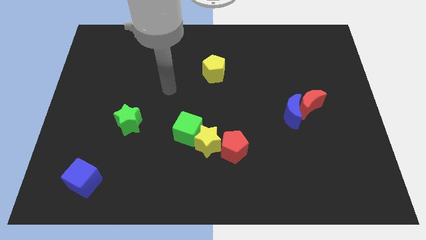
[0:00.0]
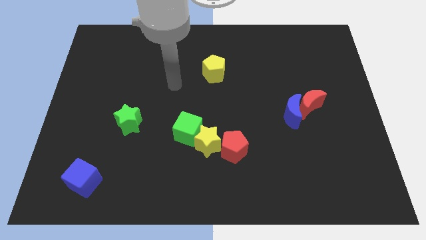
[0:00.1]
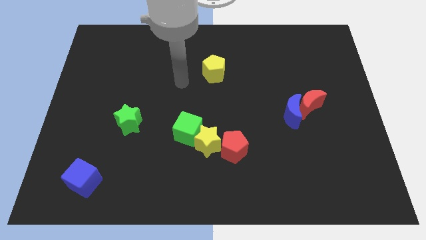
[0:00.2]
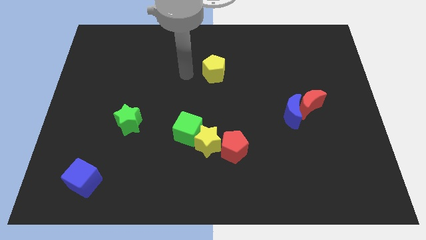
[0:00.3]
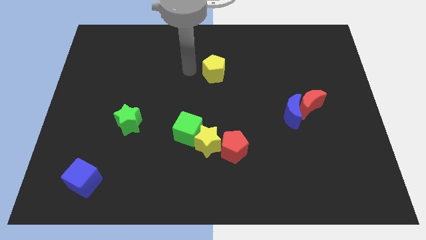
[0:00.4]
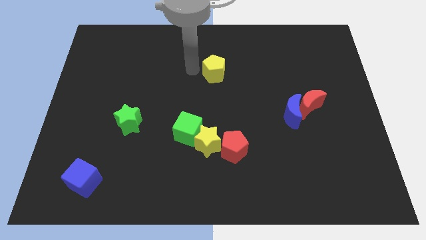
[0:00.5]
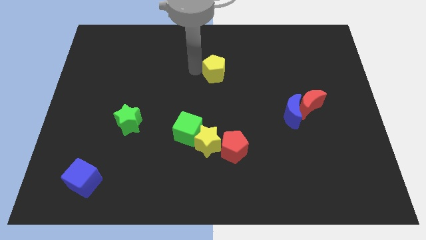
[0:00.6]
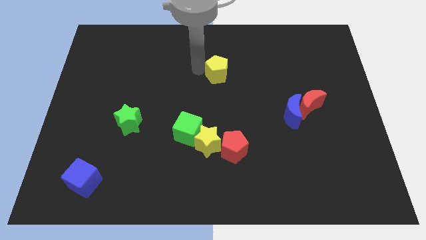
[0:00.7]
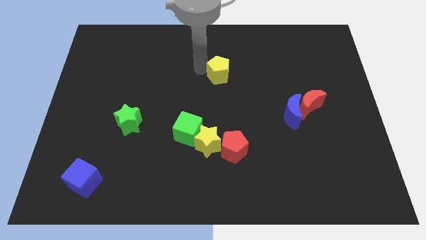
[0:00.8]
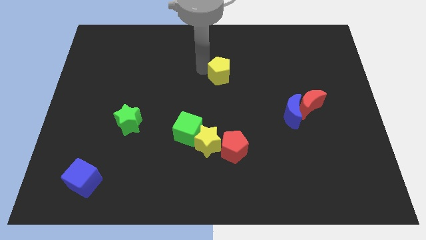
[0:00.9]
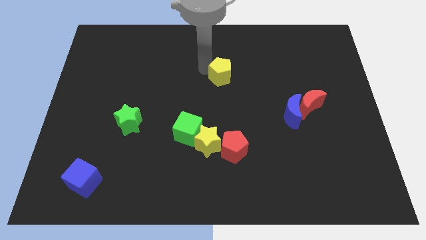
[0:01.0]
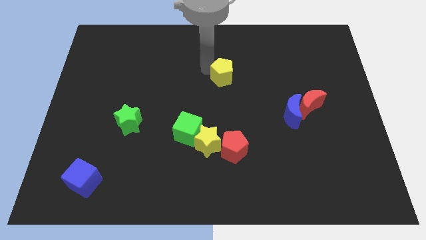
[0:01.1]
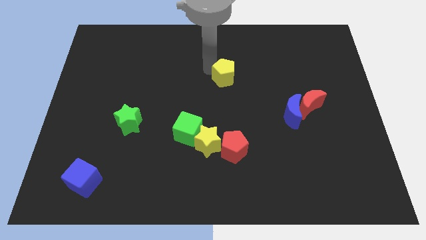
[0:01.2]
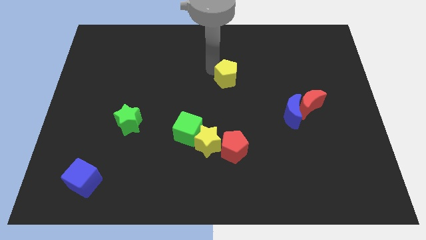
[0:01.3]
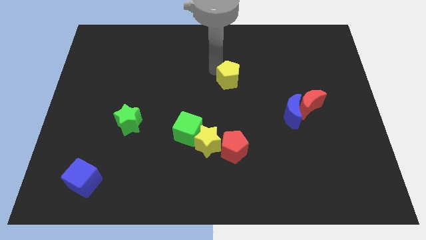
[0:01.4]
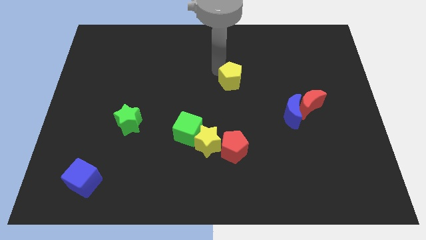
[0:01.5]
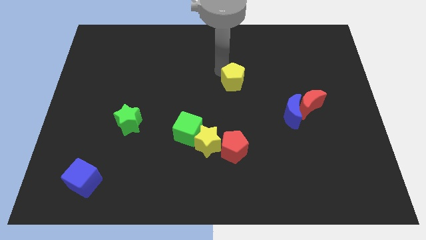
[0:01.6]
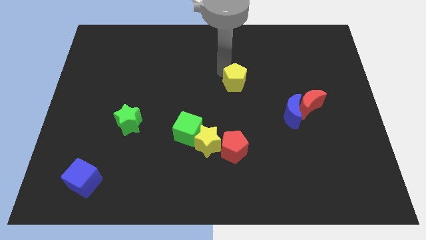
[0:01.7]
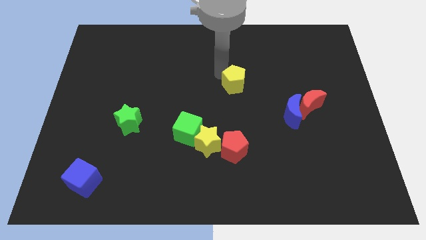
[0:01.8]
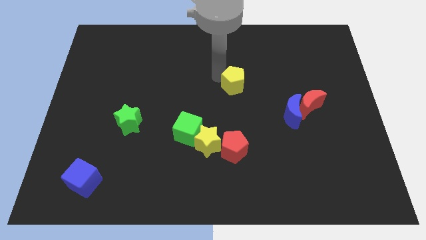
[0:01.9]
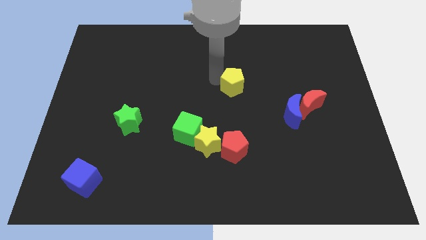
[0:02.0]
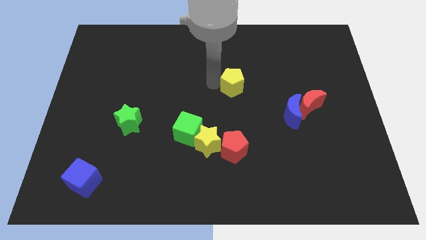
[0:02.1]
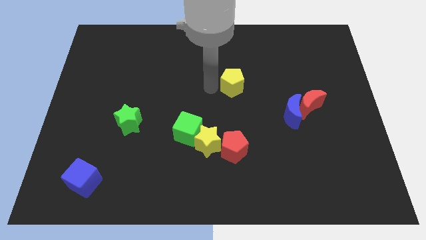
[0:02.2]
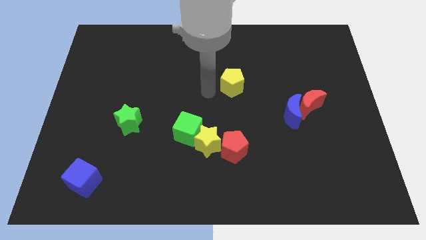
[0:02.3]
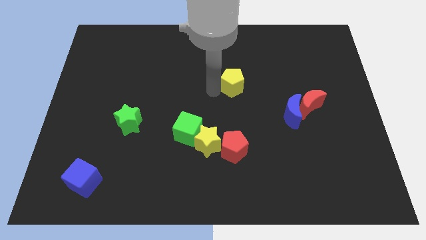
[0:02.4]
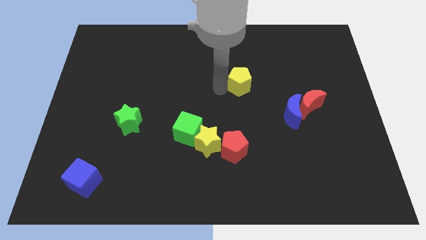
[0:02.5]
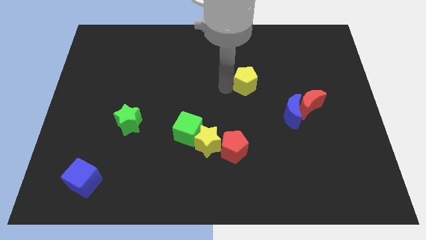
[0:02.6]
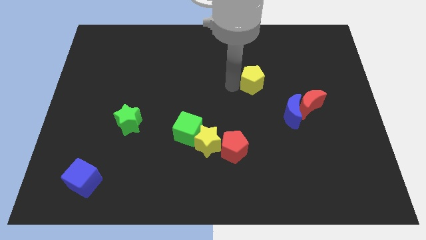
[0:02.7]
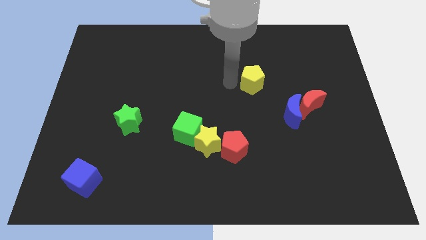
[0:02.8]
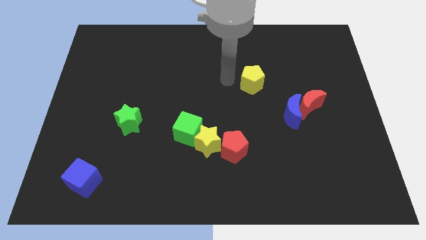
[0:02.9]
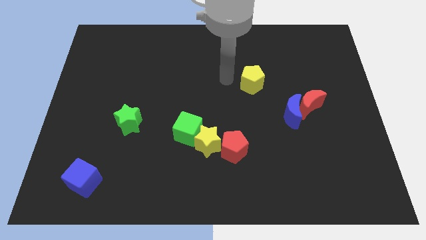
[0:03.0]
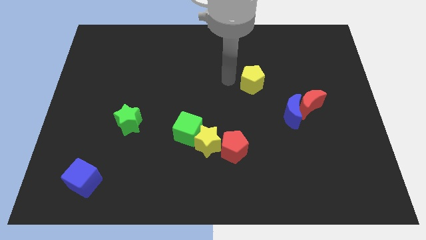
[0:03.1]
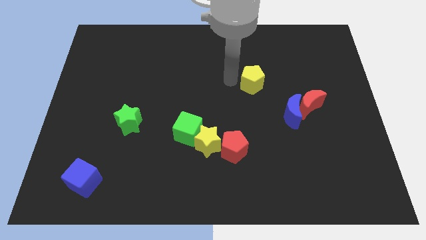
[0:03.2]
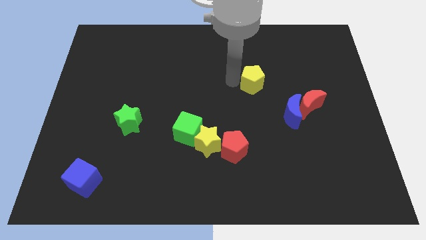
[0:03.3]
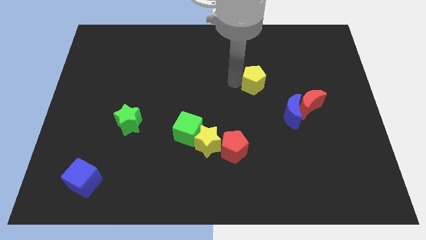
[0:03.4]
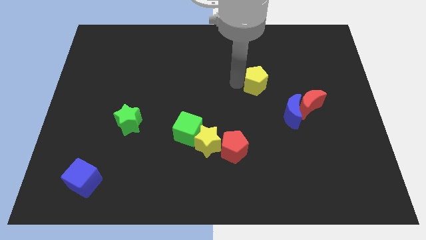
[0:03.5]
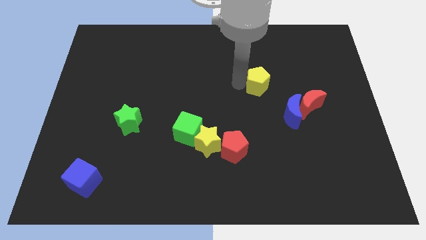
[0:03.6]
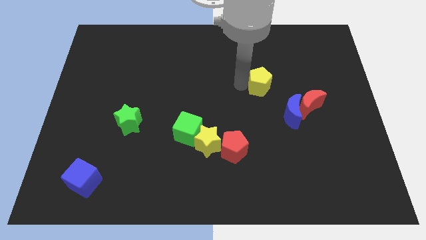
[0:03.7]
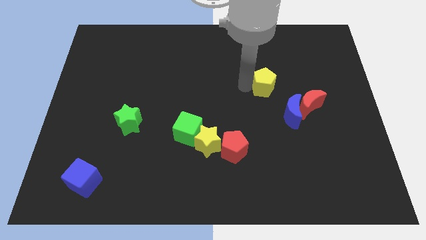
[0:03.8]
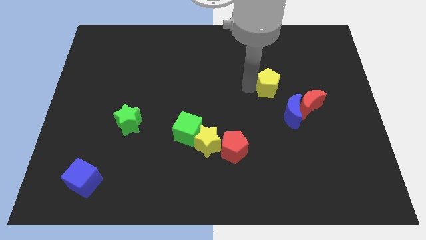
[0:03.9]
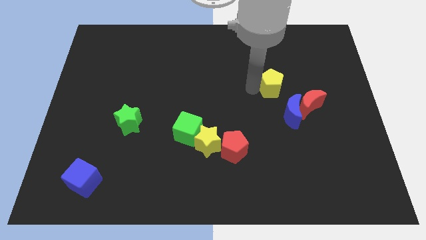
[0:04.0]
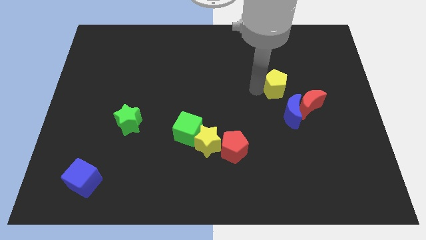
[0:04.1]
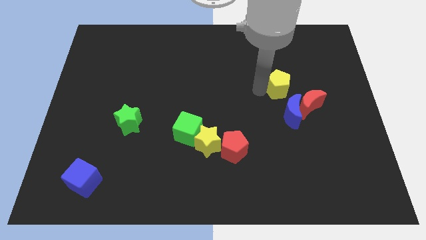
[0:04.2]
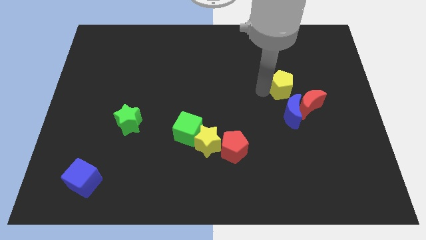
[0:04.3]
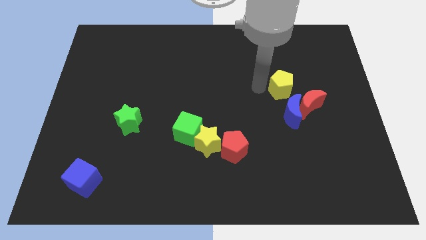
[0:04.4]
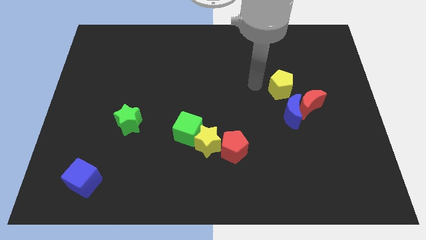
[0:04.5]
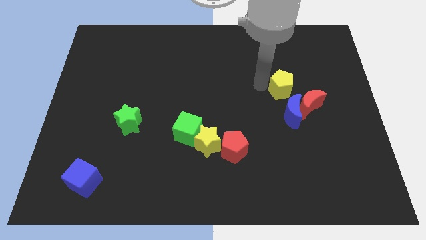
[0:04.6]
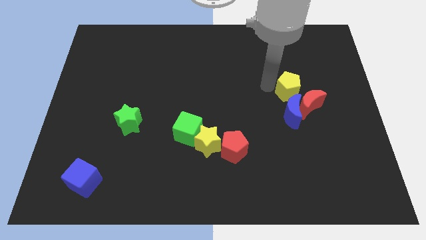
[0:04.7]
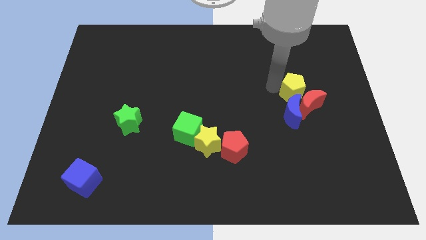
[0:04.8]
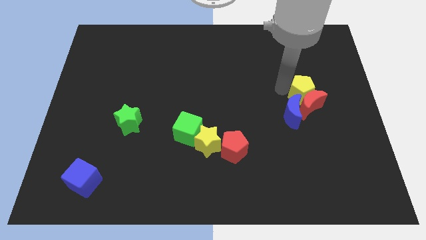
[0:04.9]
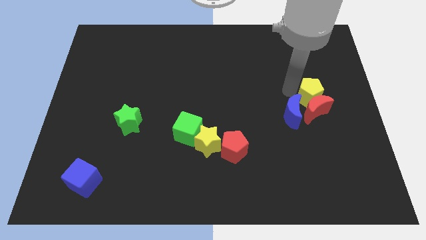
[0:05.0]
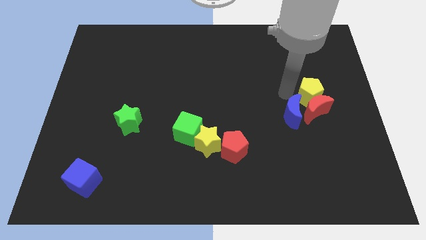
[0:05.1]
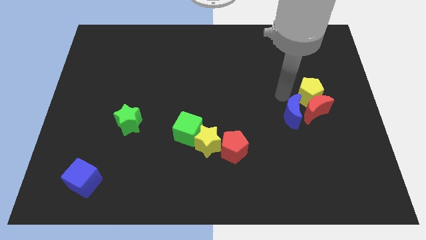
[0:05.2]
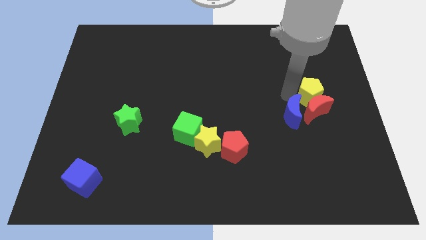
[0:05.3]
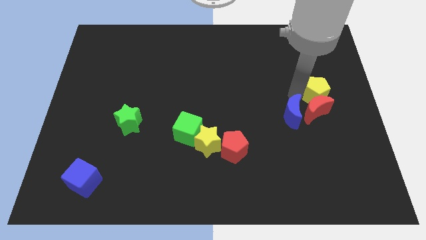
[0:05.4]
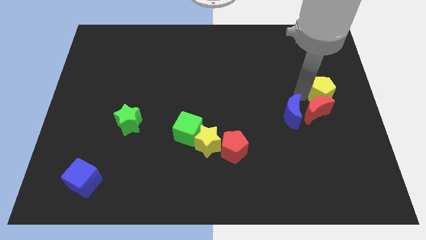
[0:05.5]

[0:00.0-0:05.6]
put the yellow pentagon to the right side

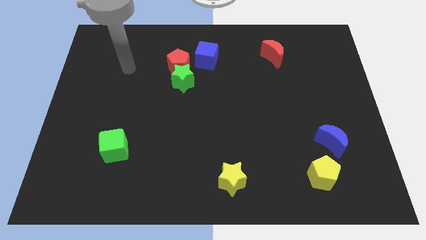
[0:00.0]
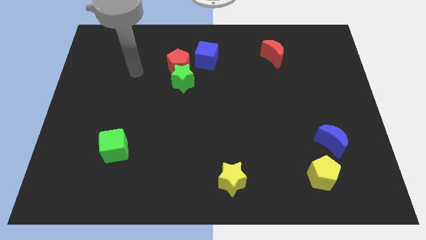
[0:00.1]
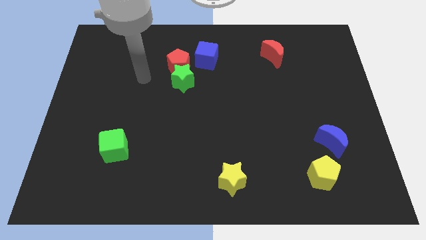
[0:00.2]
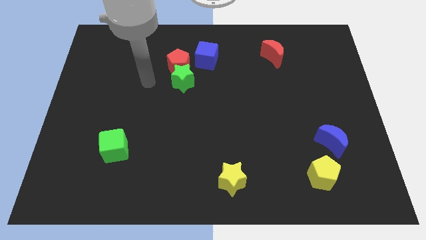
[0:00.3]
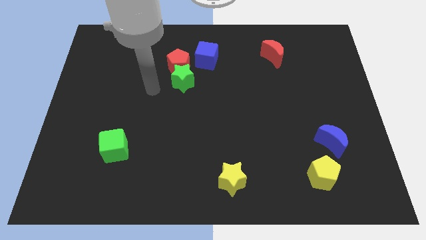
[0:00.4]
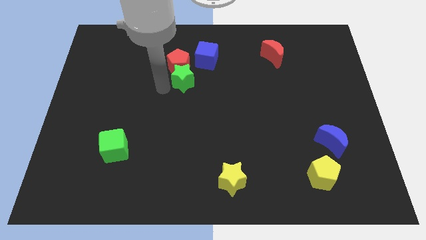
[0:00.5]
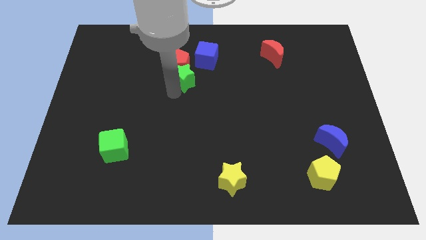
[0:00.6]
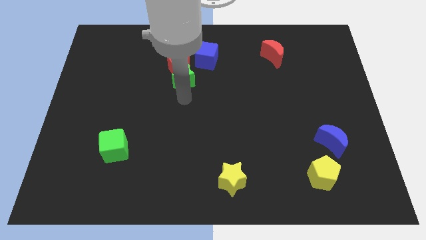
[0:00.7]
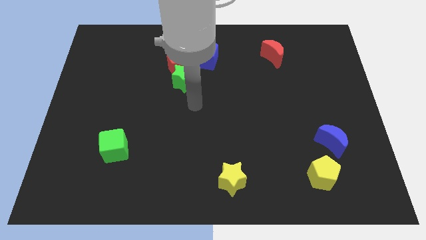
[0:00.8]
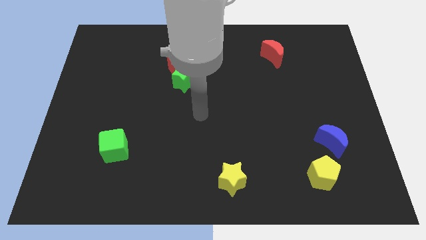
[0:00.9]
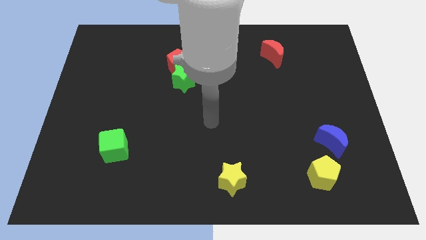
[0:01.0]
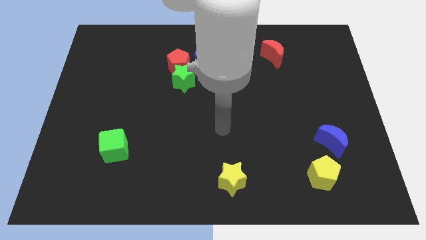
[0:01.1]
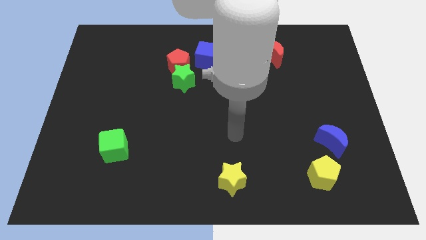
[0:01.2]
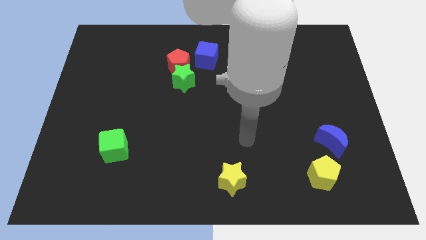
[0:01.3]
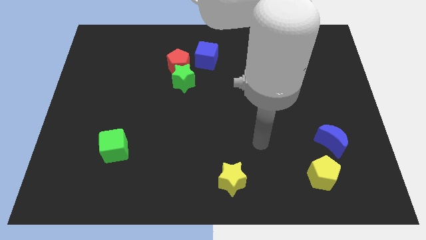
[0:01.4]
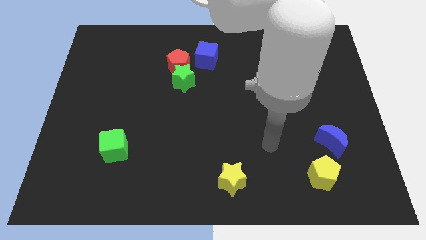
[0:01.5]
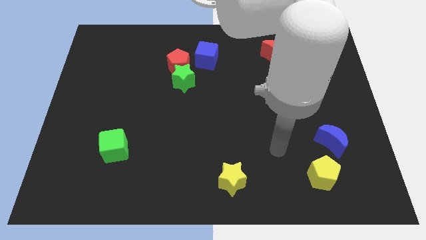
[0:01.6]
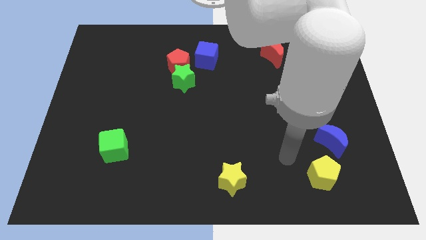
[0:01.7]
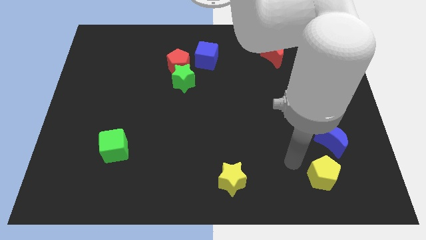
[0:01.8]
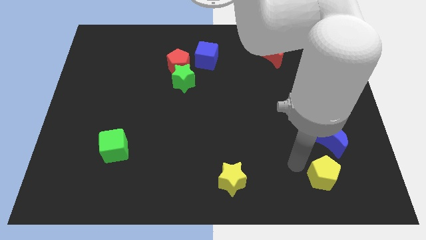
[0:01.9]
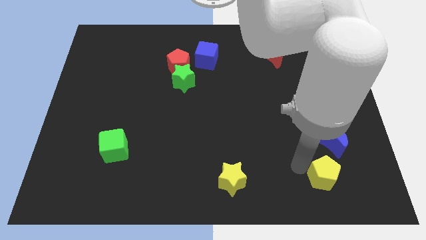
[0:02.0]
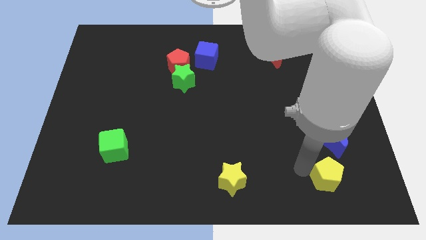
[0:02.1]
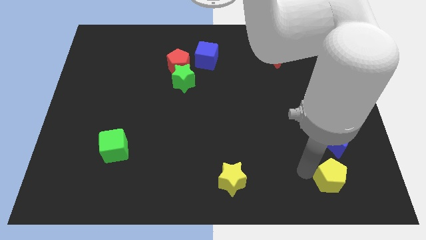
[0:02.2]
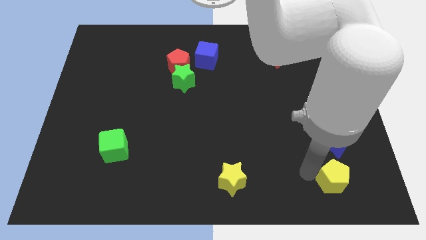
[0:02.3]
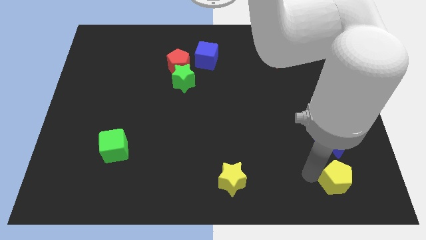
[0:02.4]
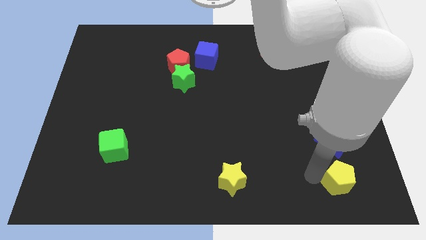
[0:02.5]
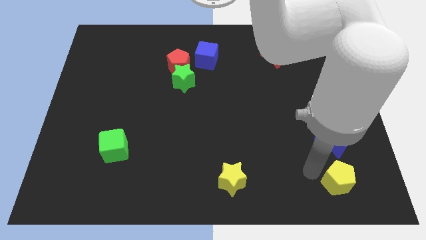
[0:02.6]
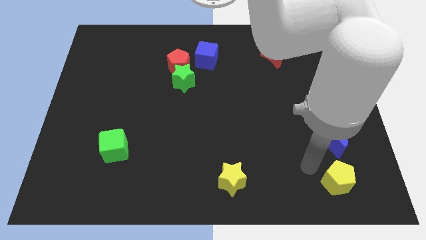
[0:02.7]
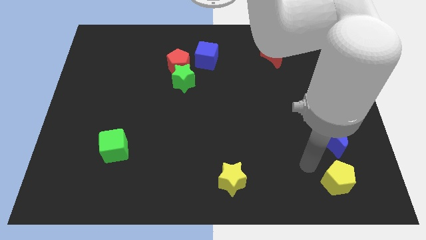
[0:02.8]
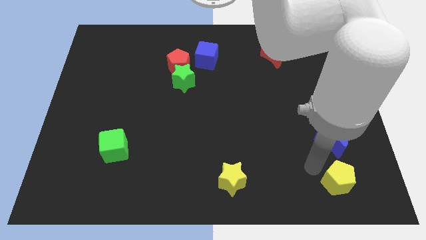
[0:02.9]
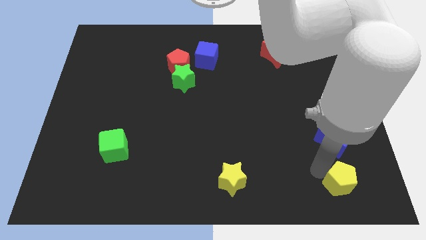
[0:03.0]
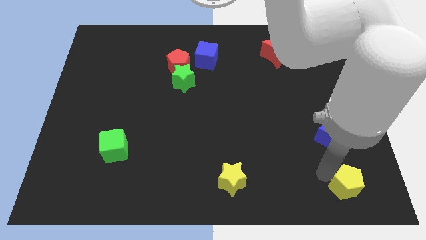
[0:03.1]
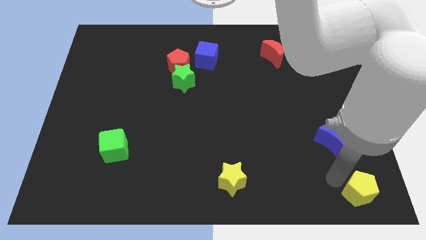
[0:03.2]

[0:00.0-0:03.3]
slide the yellow pentagon to the bottom right of the board
